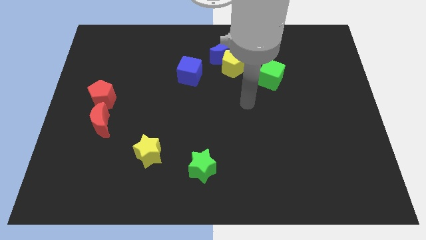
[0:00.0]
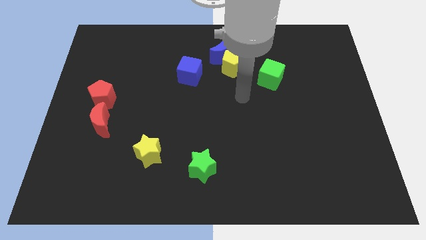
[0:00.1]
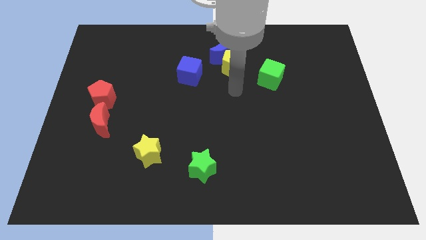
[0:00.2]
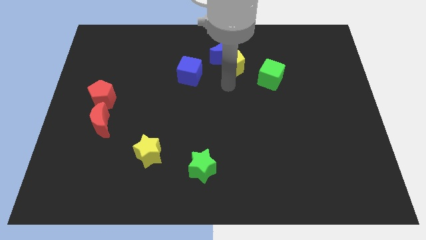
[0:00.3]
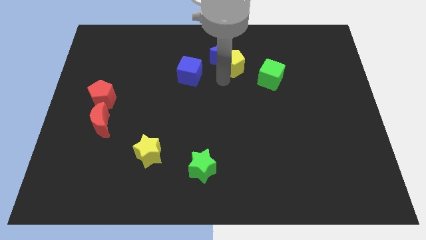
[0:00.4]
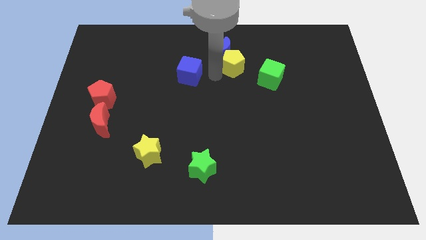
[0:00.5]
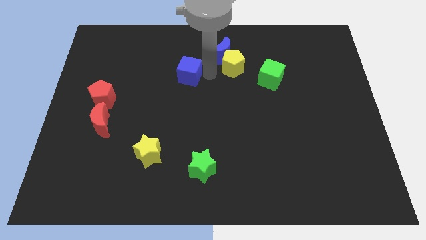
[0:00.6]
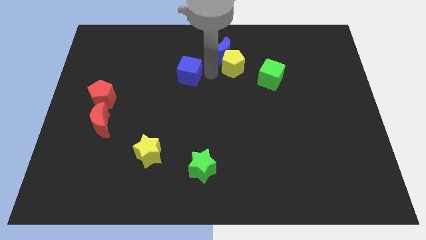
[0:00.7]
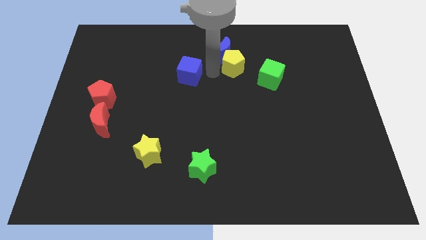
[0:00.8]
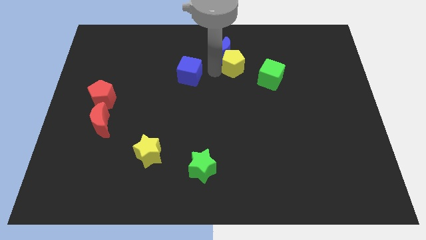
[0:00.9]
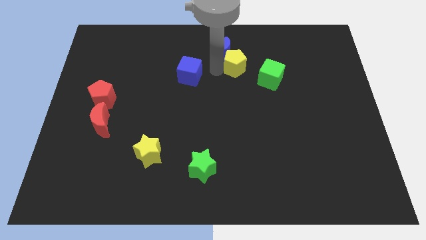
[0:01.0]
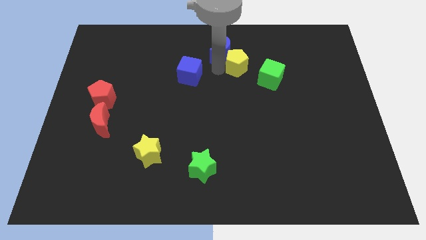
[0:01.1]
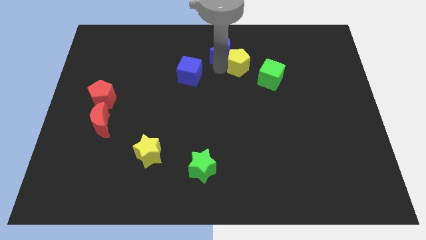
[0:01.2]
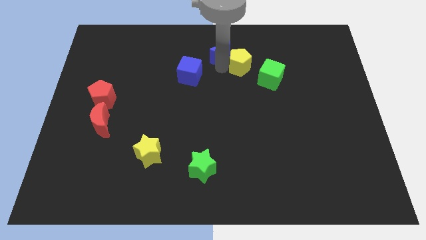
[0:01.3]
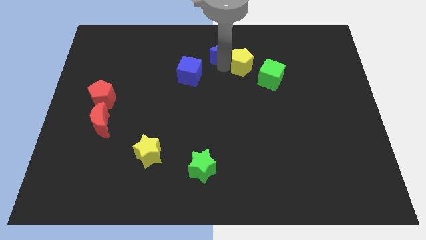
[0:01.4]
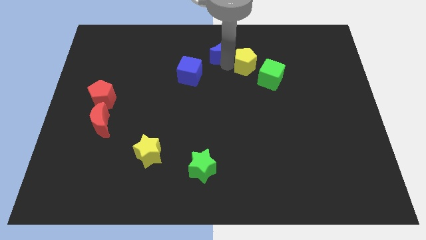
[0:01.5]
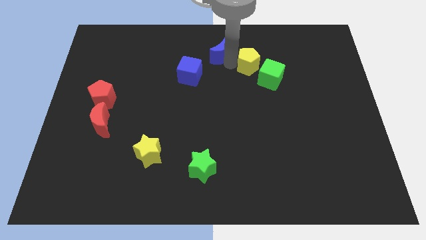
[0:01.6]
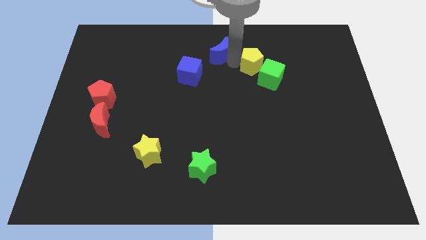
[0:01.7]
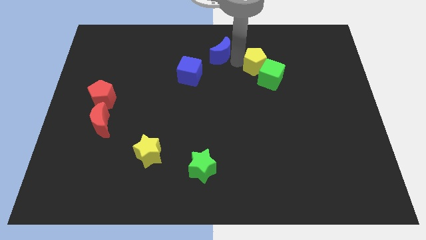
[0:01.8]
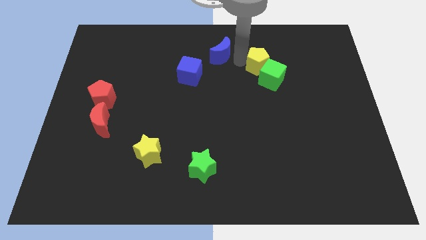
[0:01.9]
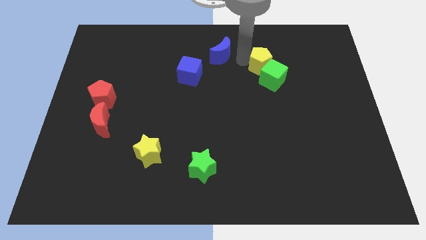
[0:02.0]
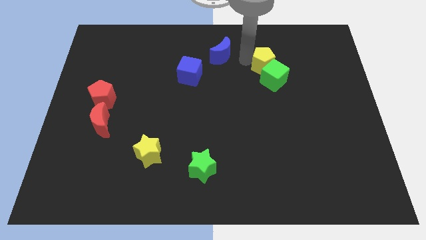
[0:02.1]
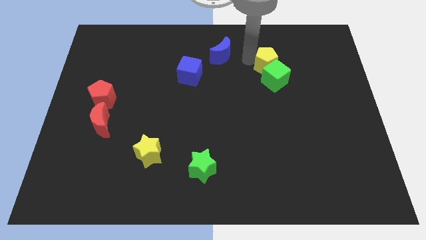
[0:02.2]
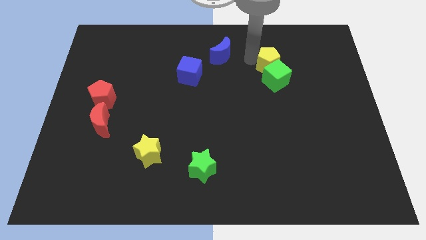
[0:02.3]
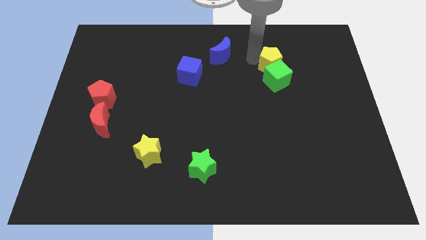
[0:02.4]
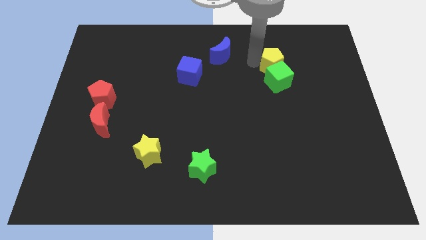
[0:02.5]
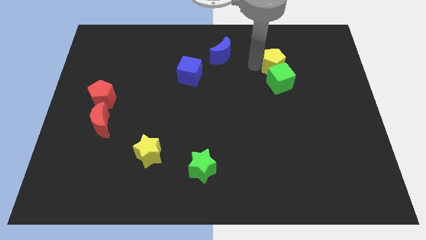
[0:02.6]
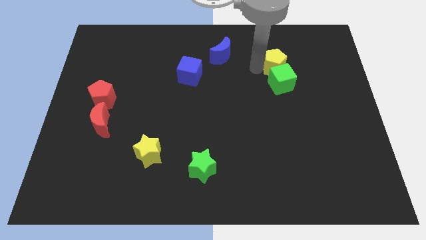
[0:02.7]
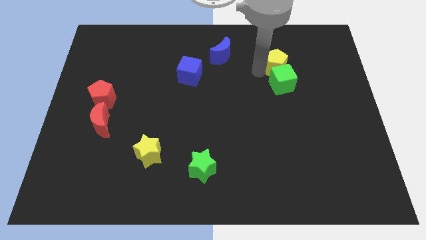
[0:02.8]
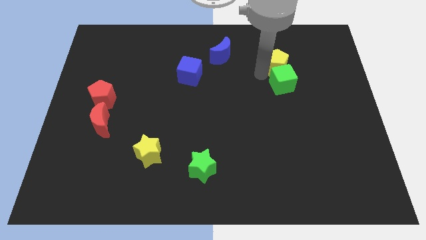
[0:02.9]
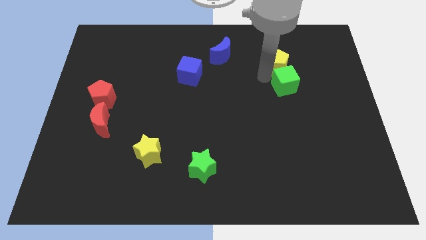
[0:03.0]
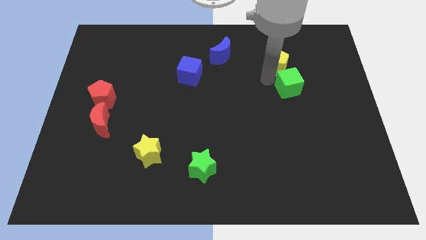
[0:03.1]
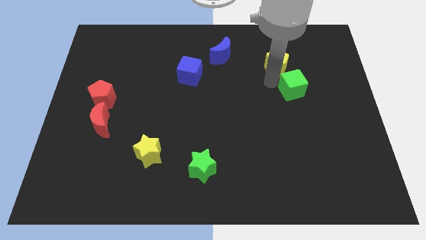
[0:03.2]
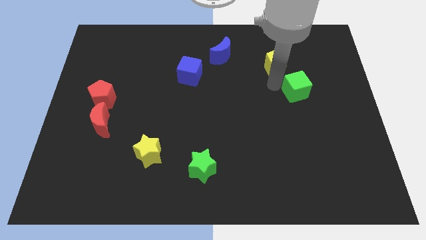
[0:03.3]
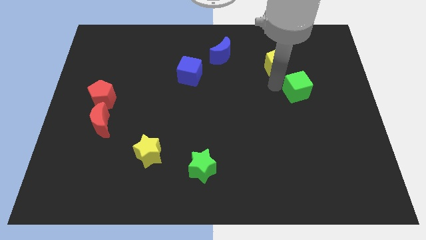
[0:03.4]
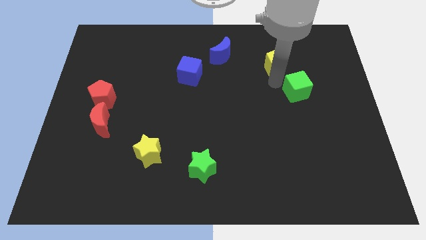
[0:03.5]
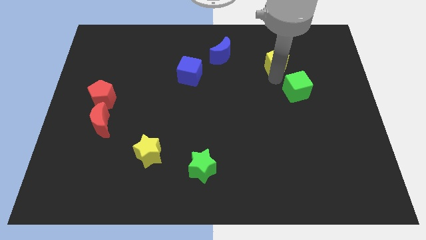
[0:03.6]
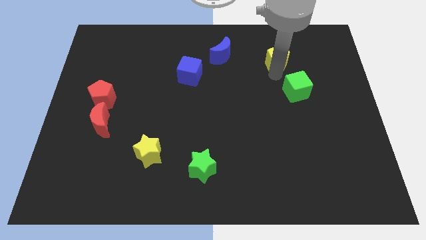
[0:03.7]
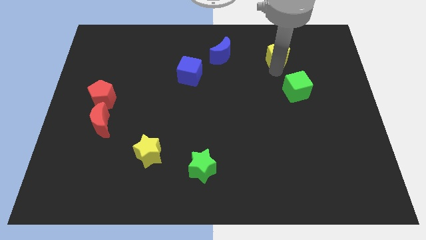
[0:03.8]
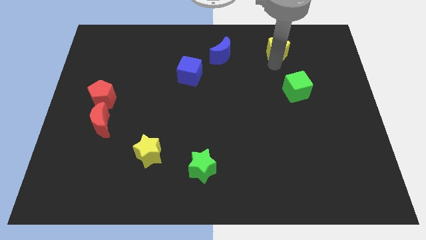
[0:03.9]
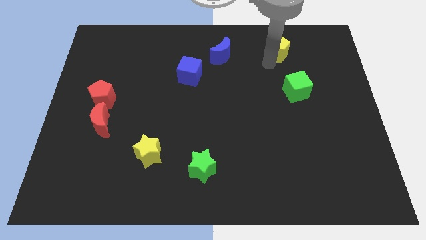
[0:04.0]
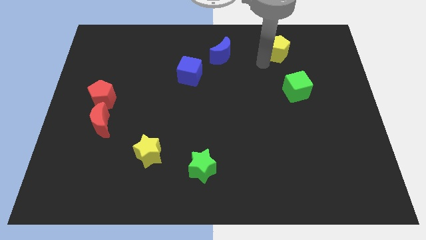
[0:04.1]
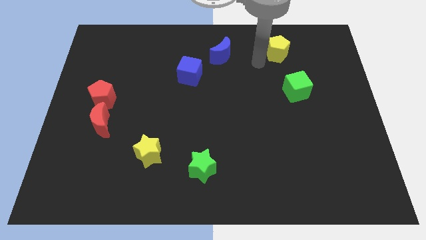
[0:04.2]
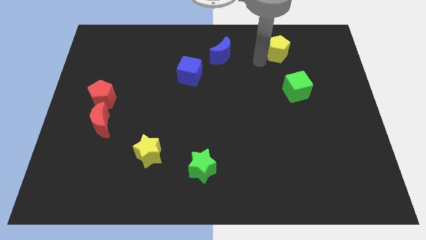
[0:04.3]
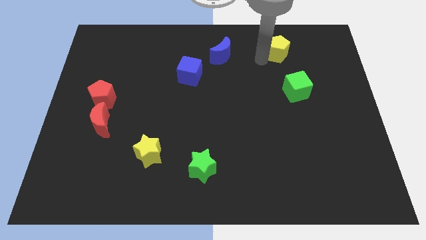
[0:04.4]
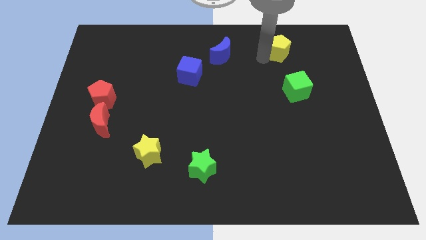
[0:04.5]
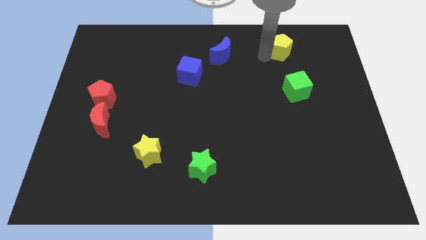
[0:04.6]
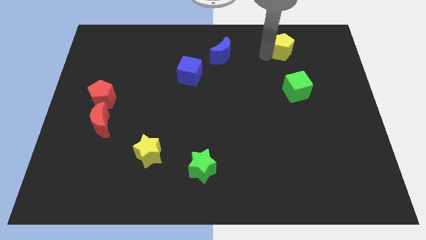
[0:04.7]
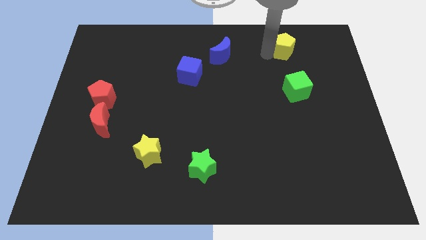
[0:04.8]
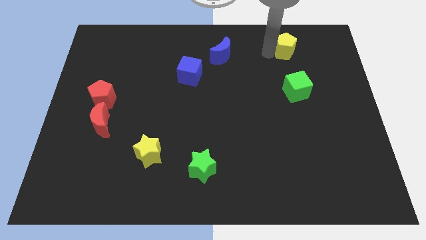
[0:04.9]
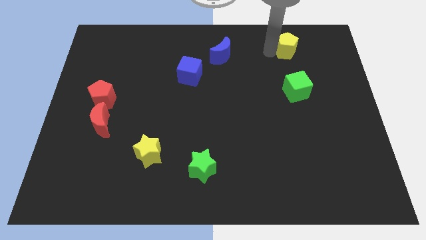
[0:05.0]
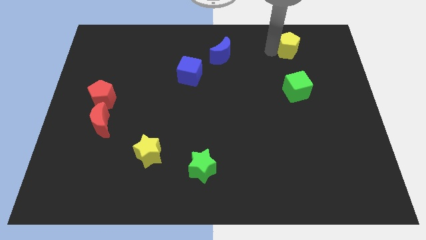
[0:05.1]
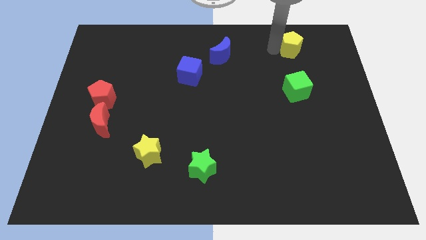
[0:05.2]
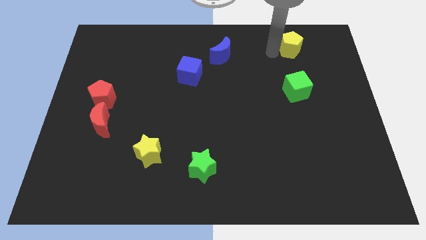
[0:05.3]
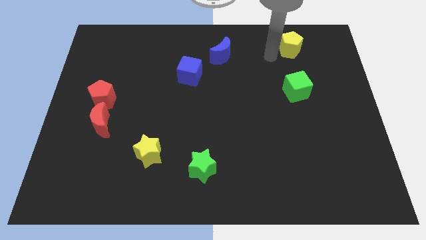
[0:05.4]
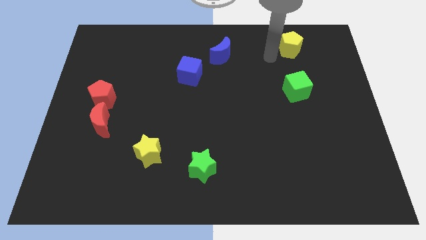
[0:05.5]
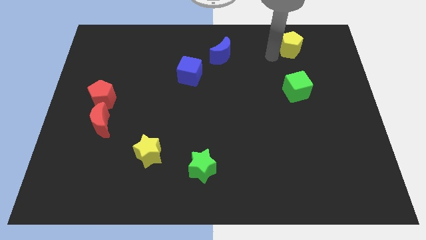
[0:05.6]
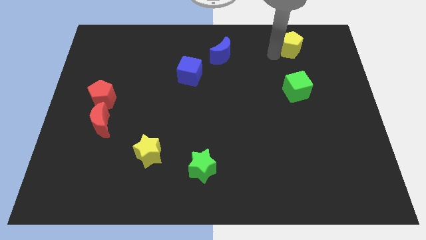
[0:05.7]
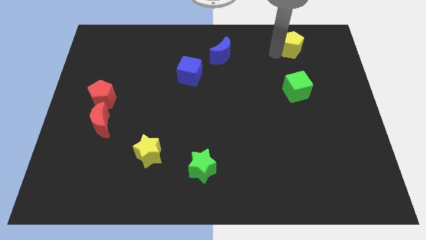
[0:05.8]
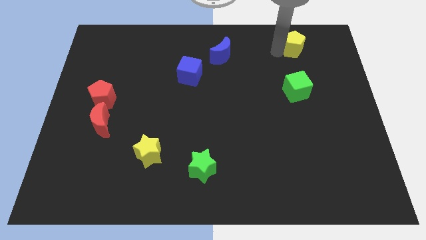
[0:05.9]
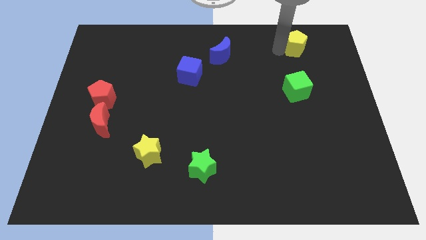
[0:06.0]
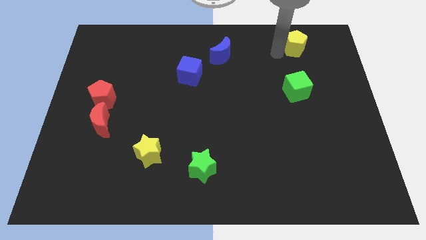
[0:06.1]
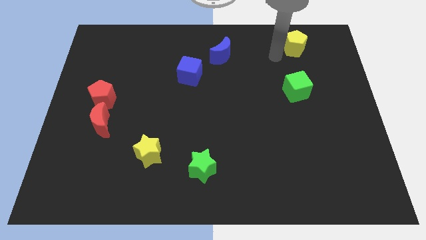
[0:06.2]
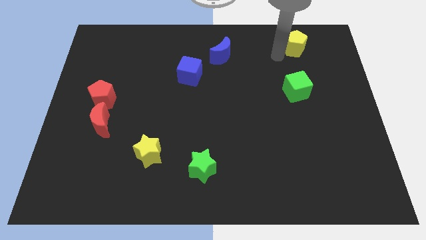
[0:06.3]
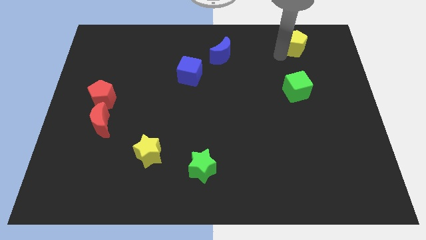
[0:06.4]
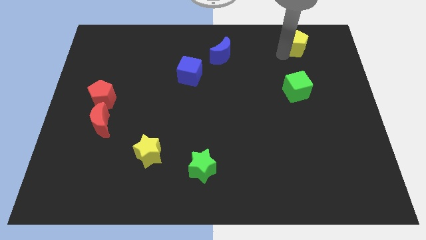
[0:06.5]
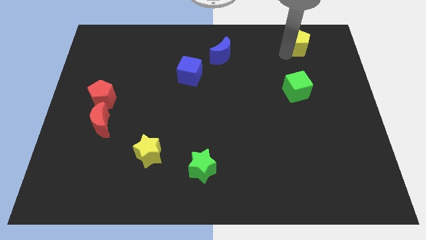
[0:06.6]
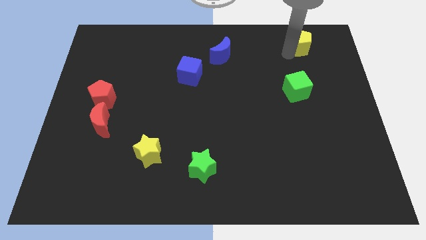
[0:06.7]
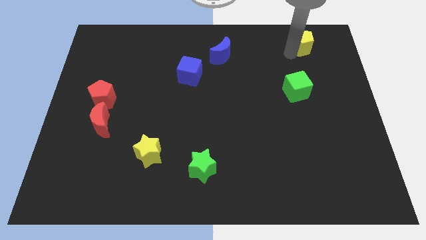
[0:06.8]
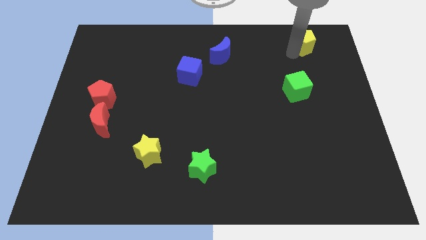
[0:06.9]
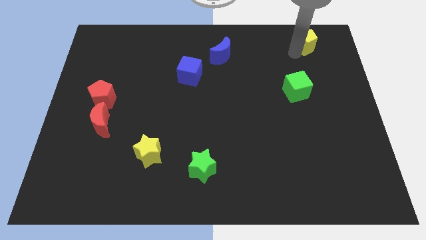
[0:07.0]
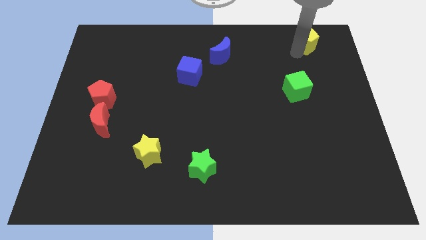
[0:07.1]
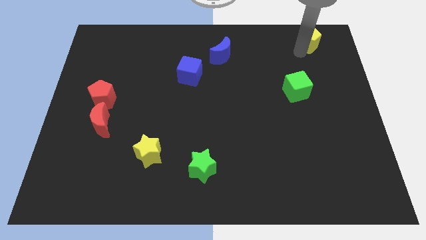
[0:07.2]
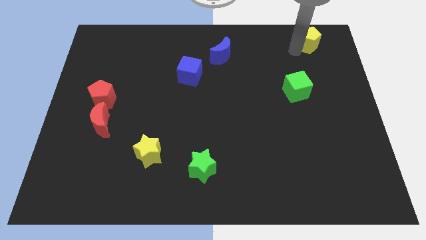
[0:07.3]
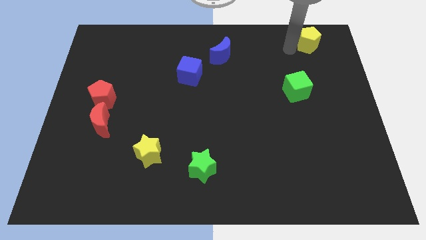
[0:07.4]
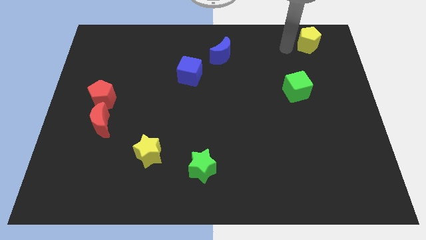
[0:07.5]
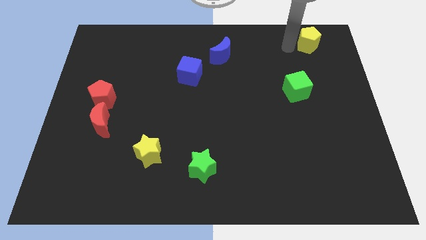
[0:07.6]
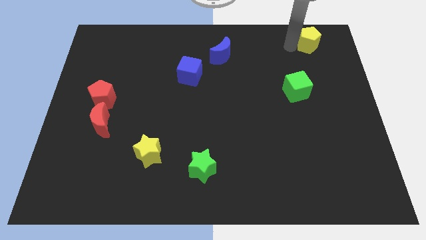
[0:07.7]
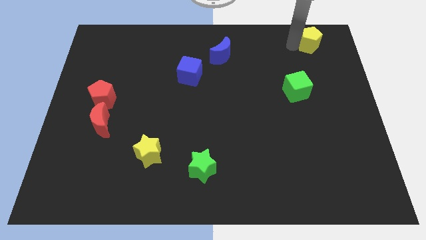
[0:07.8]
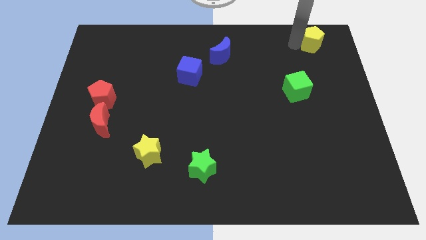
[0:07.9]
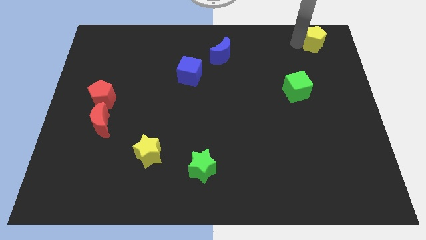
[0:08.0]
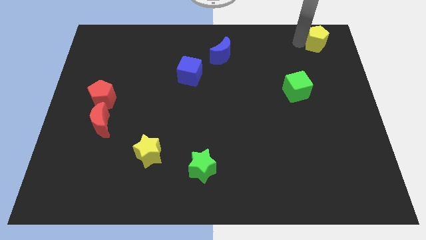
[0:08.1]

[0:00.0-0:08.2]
push the yellow pentagon to the top right of the board
